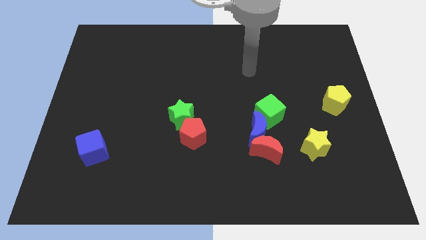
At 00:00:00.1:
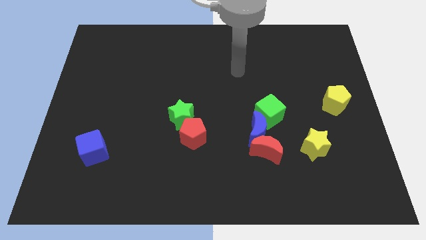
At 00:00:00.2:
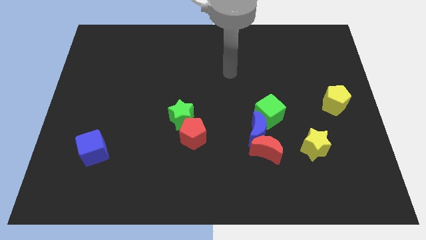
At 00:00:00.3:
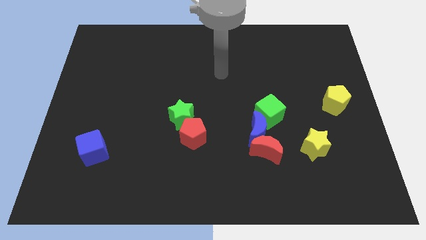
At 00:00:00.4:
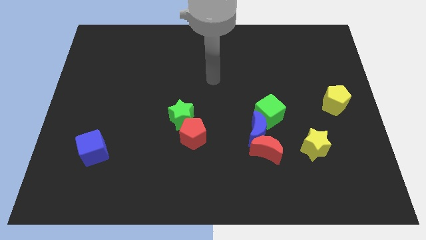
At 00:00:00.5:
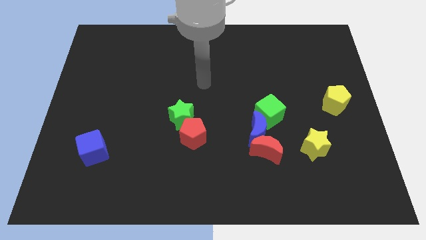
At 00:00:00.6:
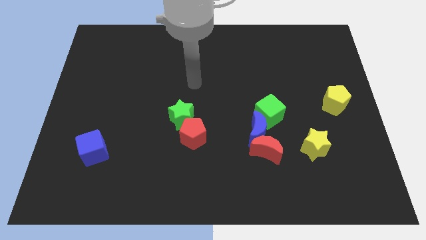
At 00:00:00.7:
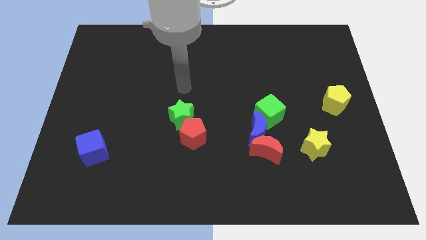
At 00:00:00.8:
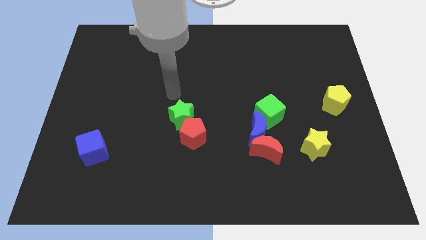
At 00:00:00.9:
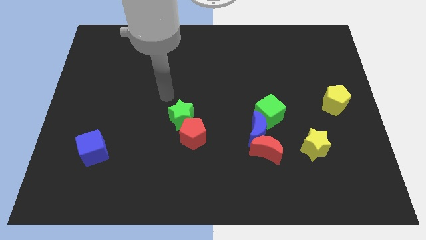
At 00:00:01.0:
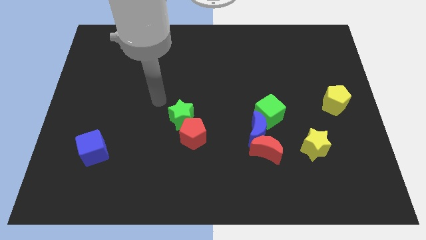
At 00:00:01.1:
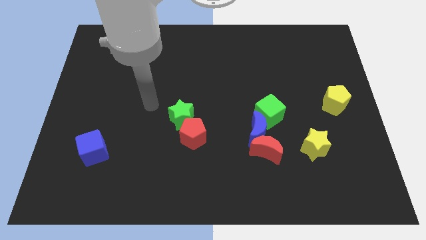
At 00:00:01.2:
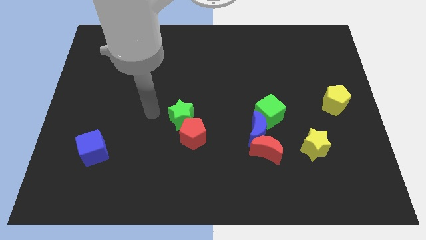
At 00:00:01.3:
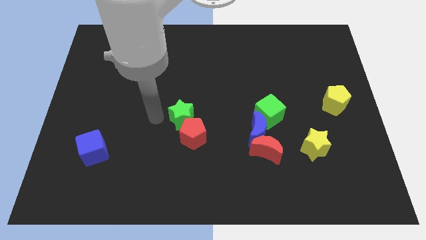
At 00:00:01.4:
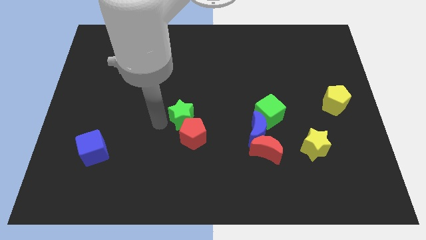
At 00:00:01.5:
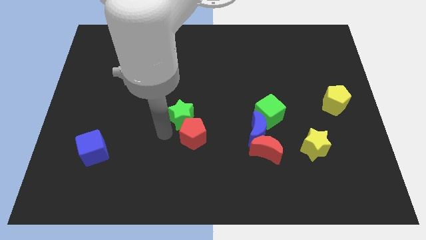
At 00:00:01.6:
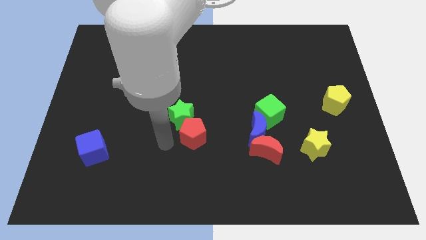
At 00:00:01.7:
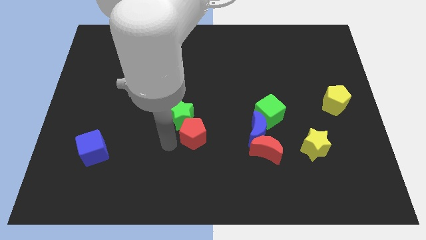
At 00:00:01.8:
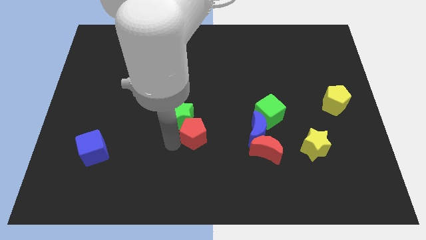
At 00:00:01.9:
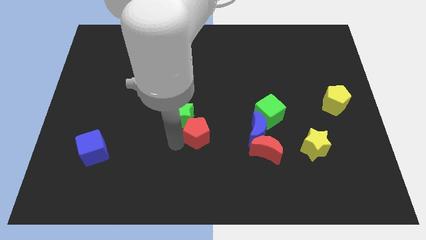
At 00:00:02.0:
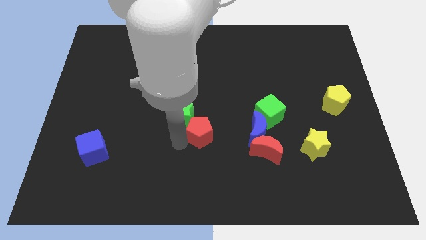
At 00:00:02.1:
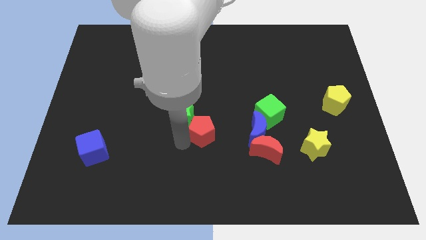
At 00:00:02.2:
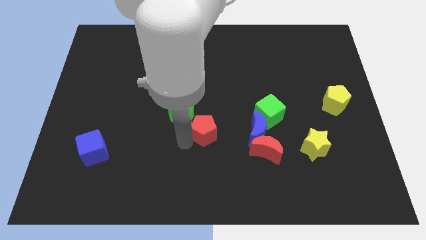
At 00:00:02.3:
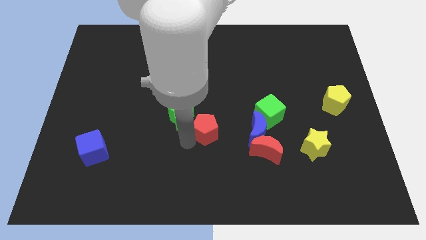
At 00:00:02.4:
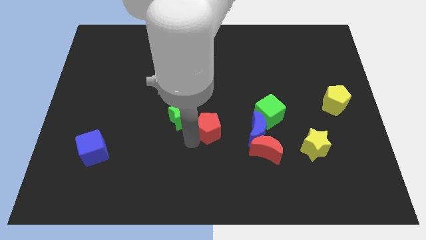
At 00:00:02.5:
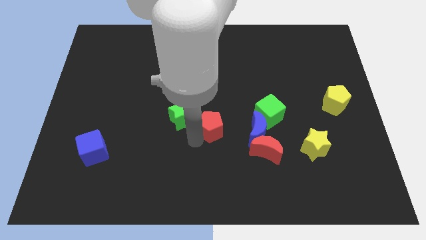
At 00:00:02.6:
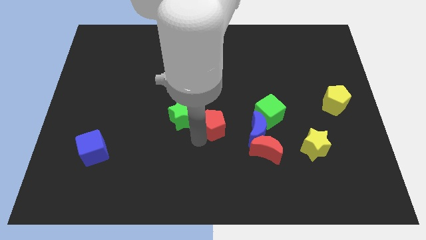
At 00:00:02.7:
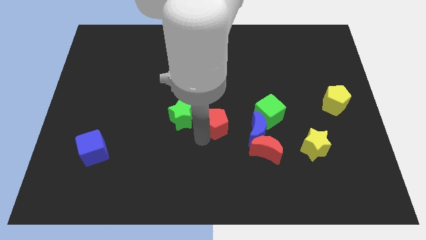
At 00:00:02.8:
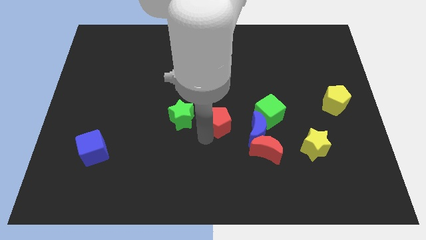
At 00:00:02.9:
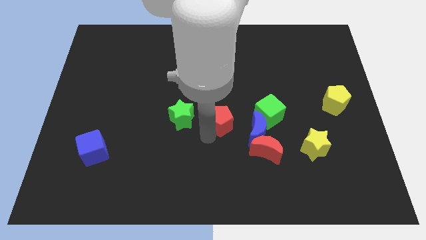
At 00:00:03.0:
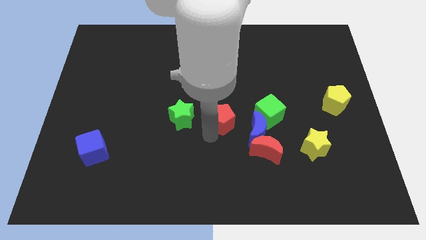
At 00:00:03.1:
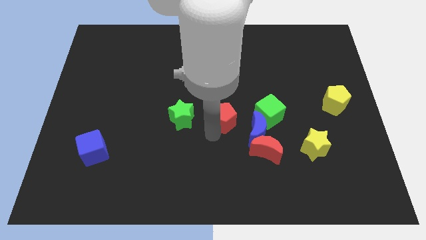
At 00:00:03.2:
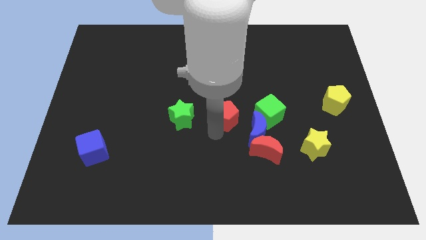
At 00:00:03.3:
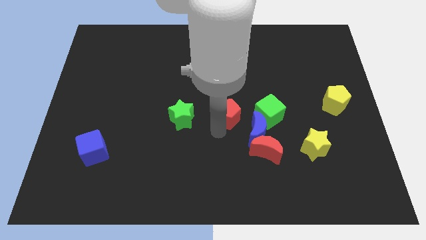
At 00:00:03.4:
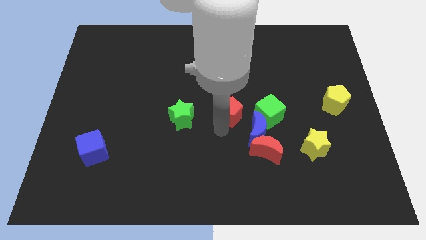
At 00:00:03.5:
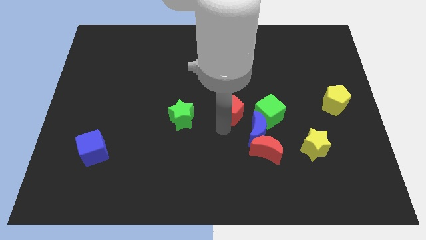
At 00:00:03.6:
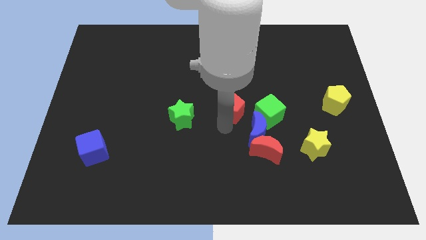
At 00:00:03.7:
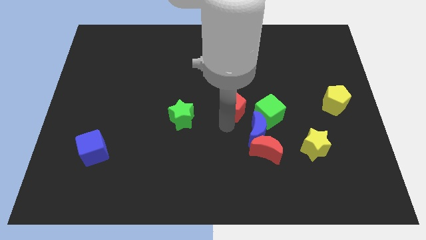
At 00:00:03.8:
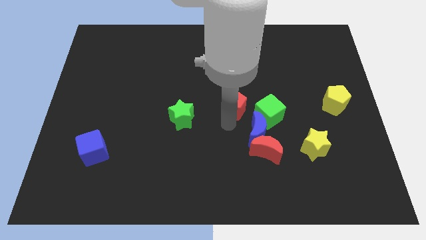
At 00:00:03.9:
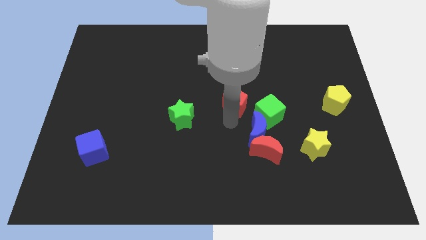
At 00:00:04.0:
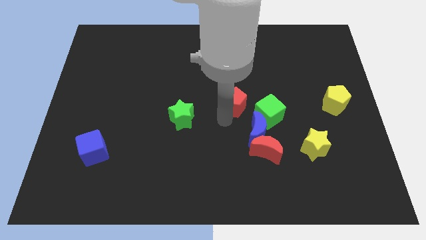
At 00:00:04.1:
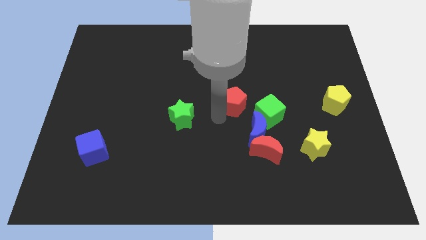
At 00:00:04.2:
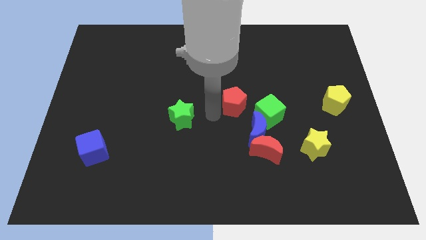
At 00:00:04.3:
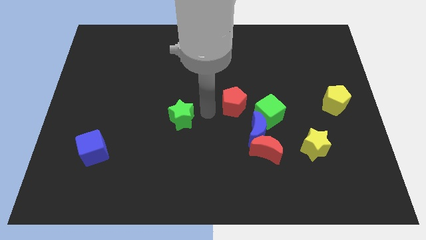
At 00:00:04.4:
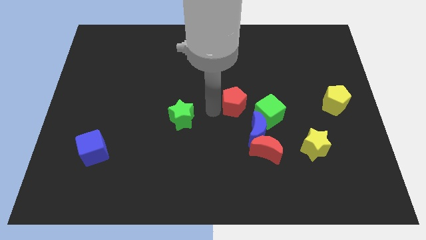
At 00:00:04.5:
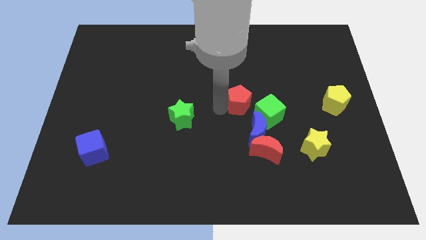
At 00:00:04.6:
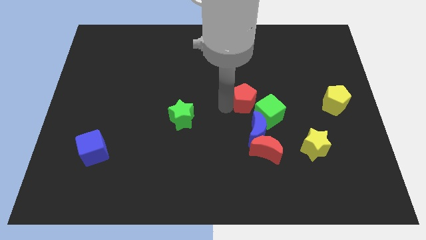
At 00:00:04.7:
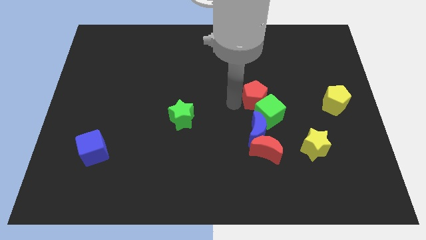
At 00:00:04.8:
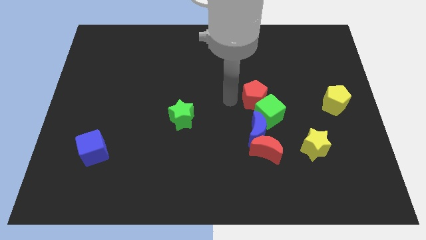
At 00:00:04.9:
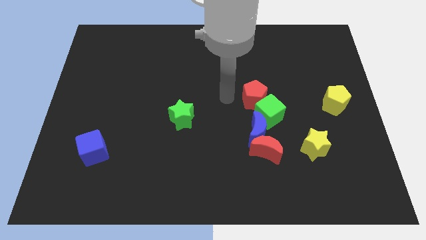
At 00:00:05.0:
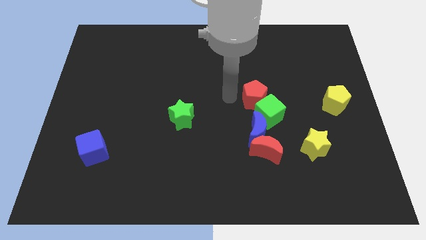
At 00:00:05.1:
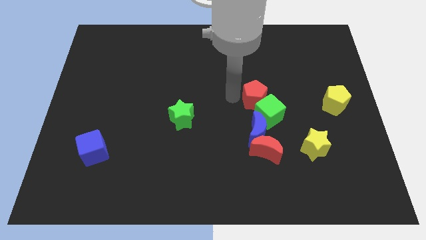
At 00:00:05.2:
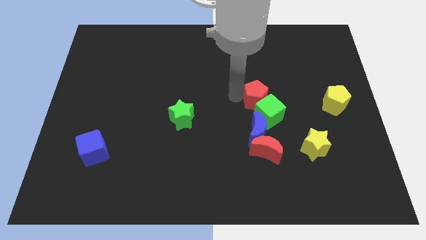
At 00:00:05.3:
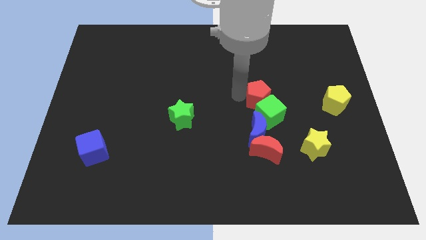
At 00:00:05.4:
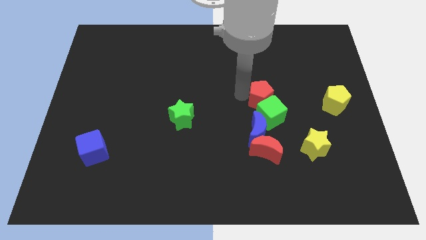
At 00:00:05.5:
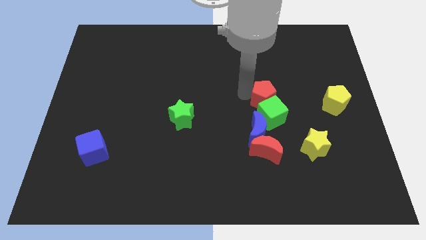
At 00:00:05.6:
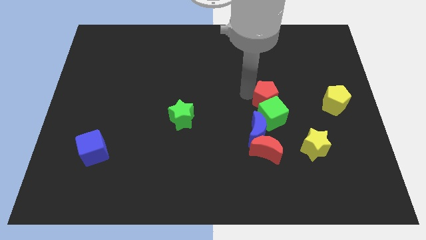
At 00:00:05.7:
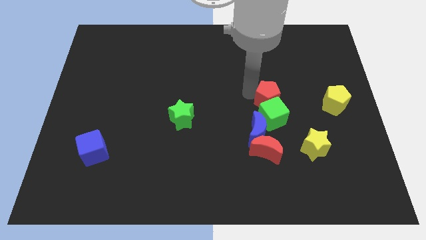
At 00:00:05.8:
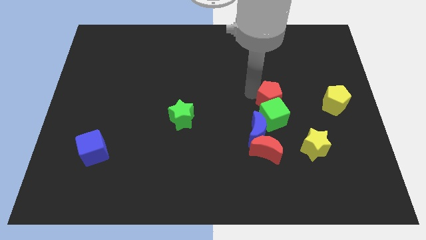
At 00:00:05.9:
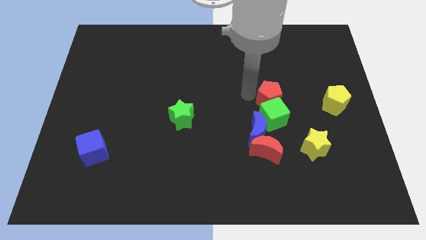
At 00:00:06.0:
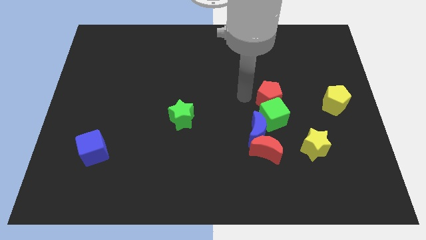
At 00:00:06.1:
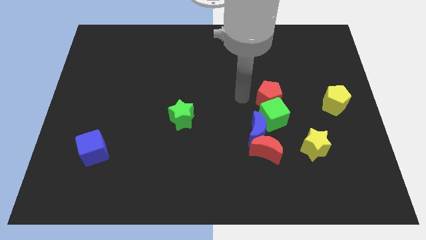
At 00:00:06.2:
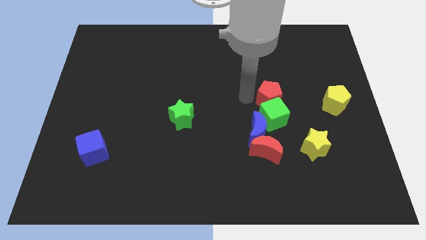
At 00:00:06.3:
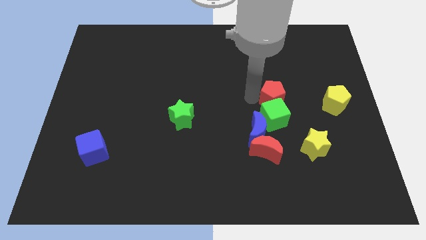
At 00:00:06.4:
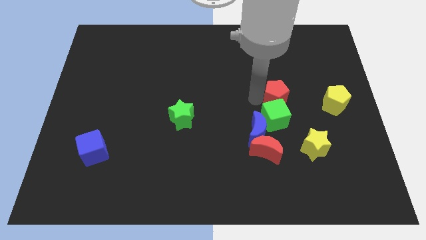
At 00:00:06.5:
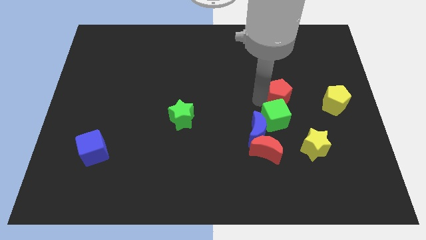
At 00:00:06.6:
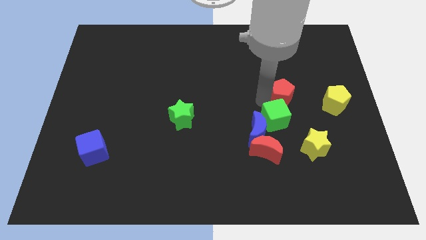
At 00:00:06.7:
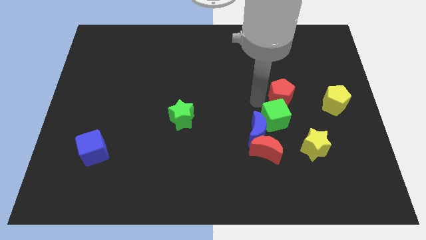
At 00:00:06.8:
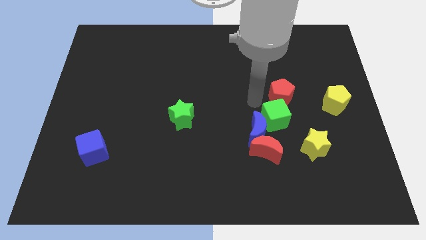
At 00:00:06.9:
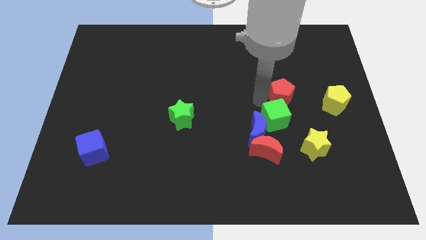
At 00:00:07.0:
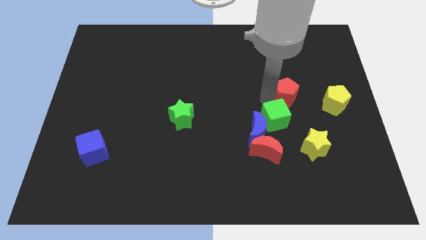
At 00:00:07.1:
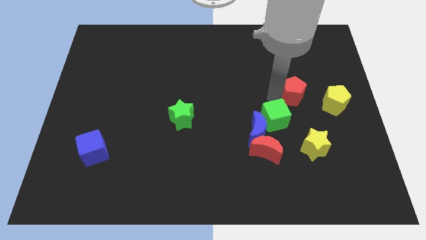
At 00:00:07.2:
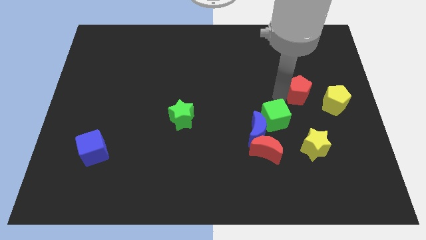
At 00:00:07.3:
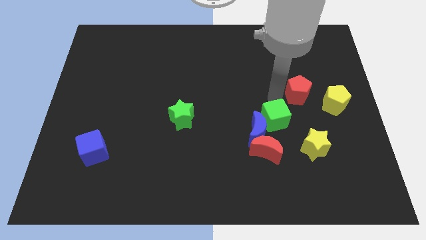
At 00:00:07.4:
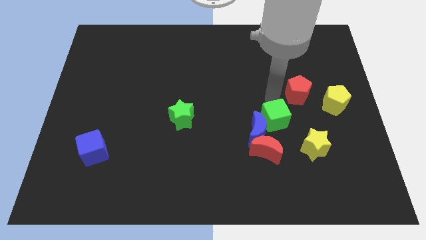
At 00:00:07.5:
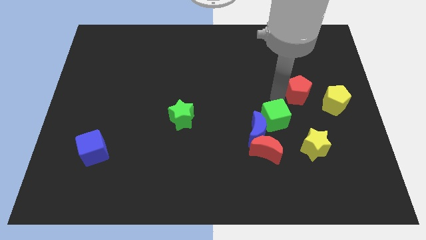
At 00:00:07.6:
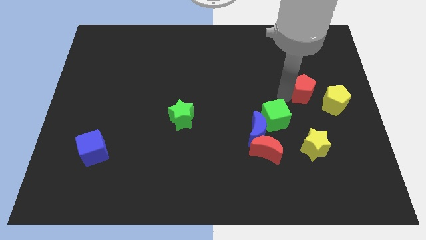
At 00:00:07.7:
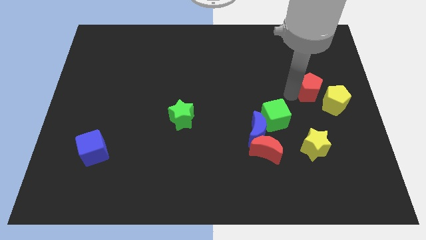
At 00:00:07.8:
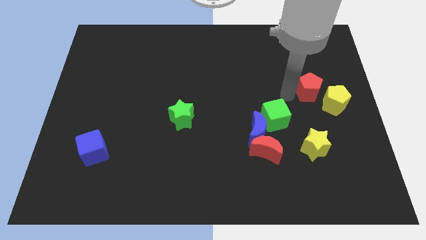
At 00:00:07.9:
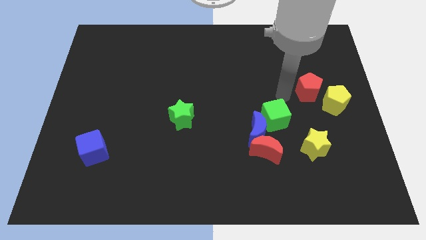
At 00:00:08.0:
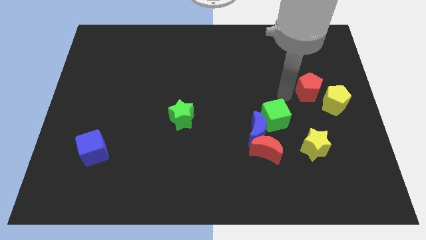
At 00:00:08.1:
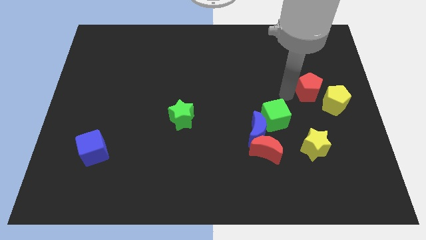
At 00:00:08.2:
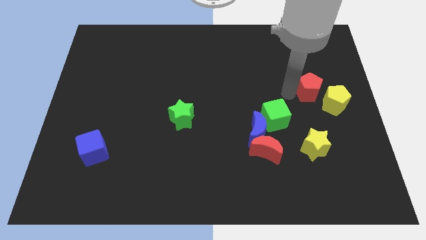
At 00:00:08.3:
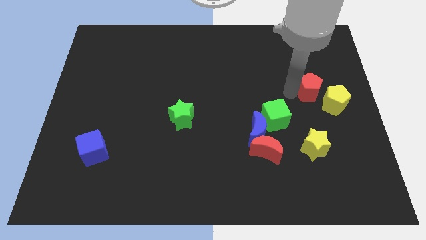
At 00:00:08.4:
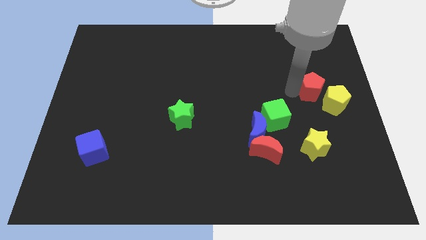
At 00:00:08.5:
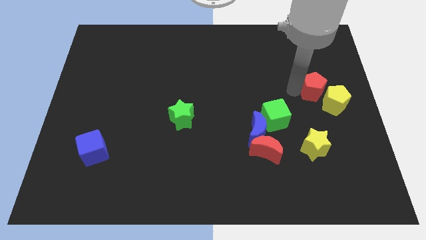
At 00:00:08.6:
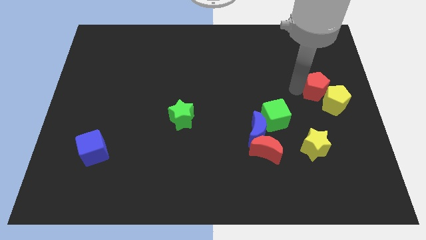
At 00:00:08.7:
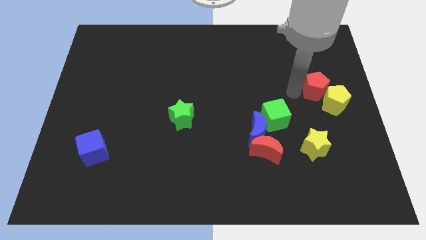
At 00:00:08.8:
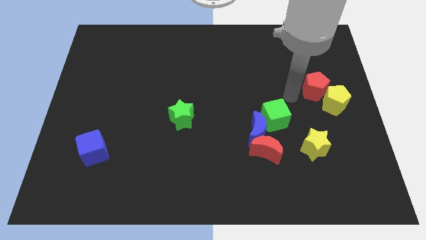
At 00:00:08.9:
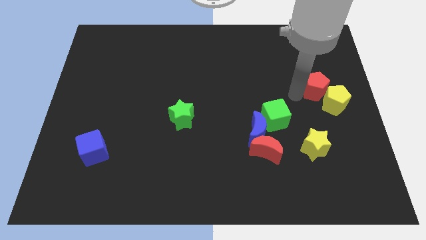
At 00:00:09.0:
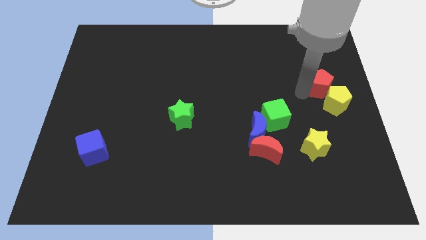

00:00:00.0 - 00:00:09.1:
push the red pentagon to the right side
